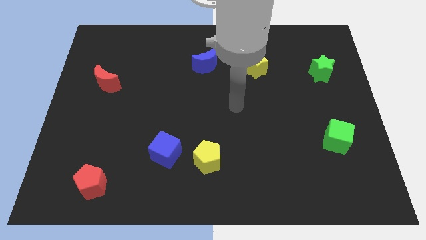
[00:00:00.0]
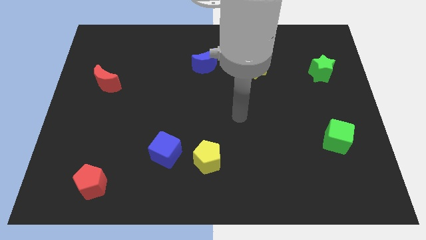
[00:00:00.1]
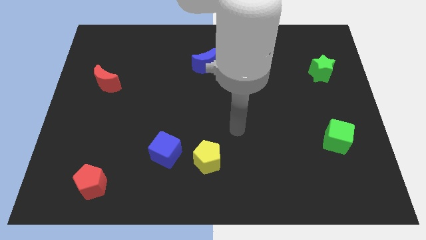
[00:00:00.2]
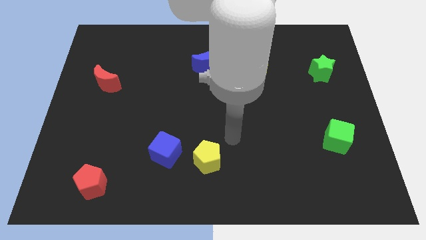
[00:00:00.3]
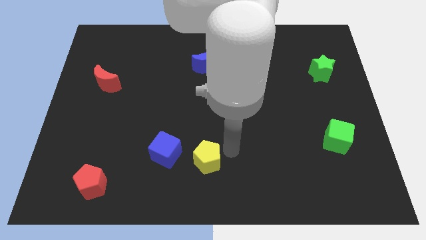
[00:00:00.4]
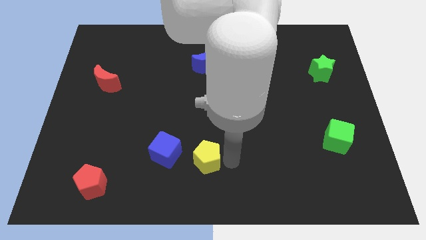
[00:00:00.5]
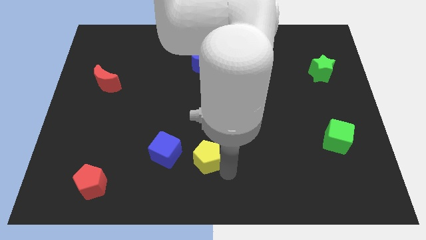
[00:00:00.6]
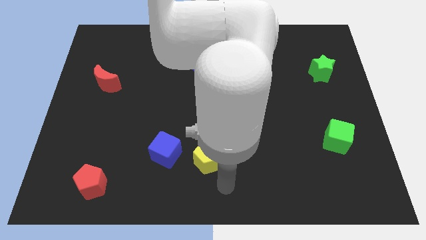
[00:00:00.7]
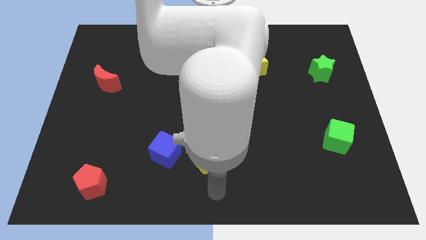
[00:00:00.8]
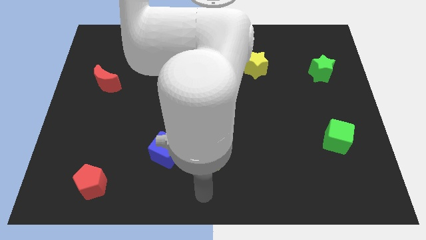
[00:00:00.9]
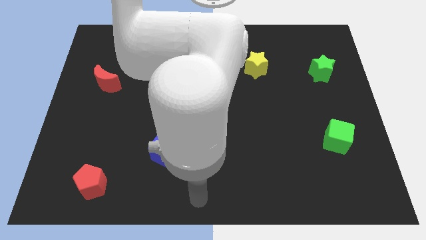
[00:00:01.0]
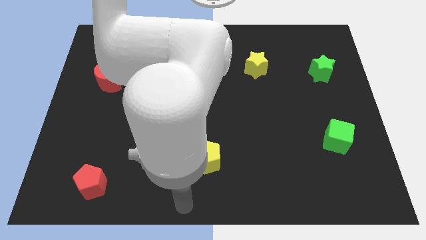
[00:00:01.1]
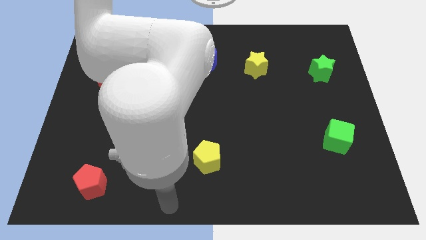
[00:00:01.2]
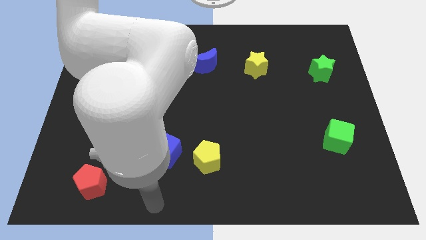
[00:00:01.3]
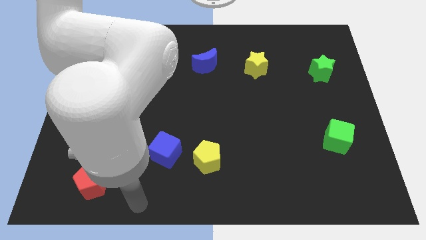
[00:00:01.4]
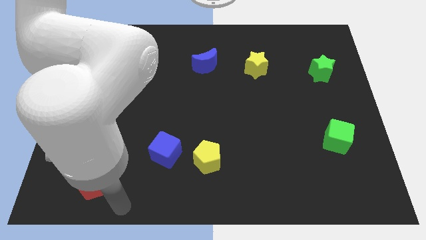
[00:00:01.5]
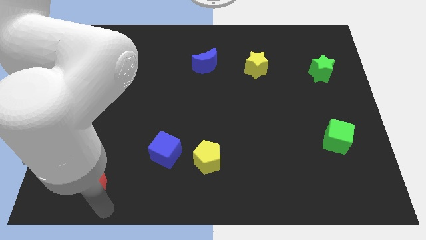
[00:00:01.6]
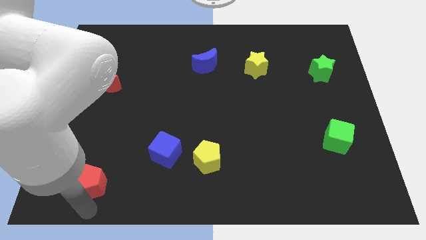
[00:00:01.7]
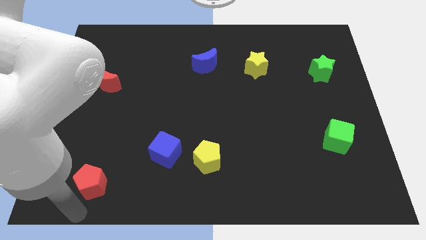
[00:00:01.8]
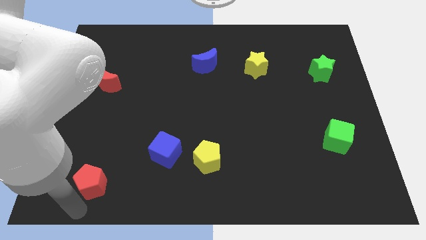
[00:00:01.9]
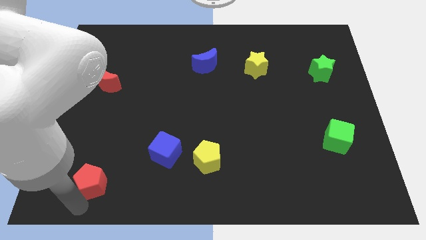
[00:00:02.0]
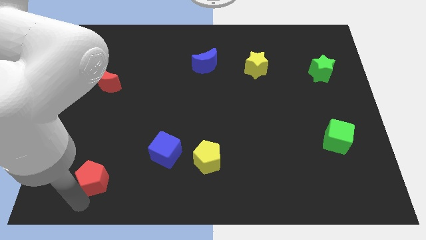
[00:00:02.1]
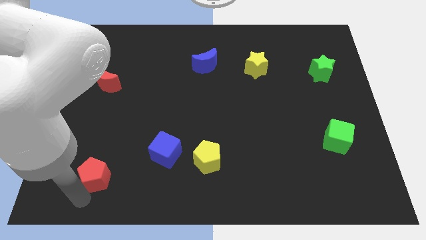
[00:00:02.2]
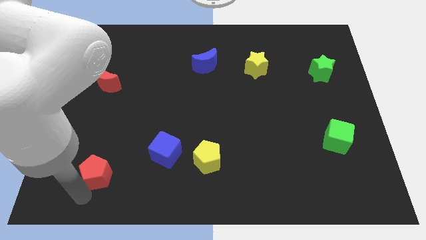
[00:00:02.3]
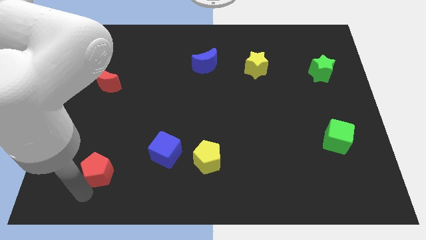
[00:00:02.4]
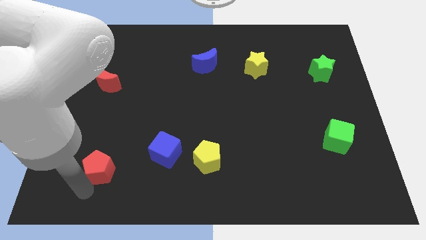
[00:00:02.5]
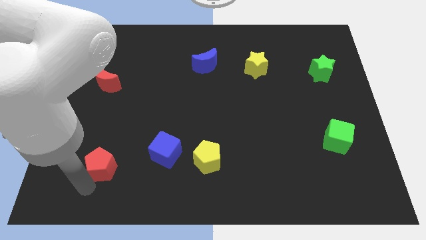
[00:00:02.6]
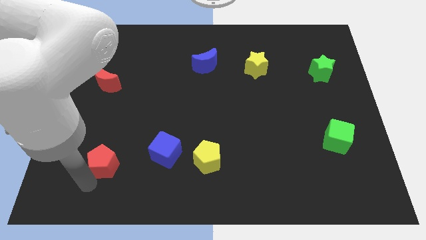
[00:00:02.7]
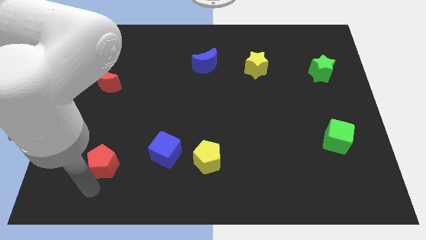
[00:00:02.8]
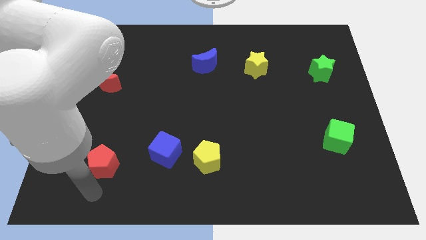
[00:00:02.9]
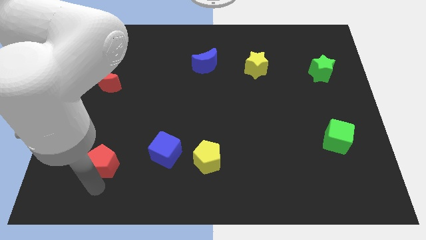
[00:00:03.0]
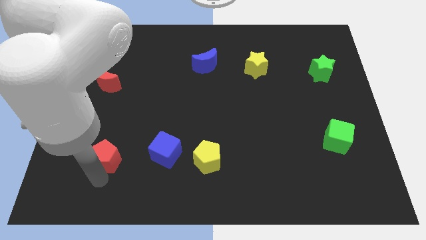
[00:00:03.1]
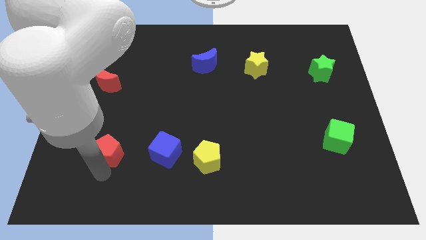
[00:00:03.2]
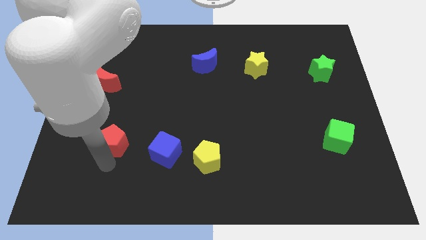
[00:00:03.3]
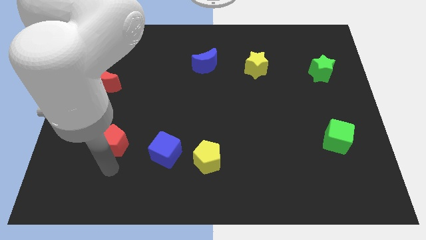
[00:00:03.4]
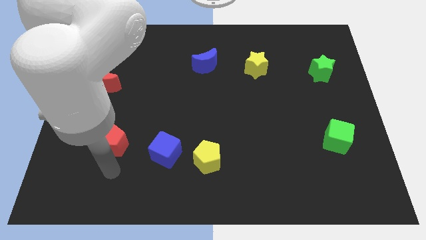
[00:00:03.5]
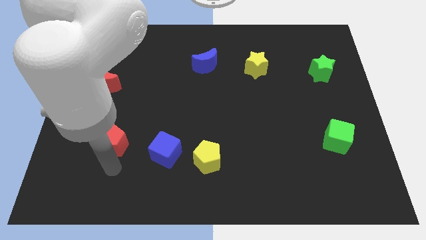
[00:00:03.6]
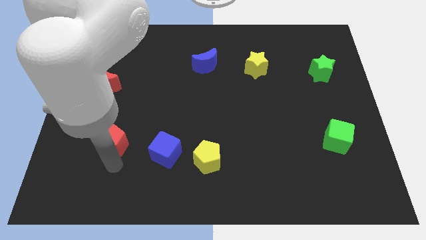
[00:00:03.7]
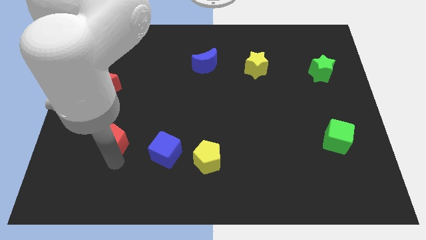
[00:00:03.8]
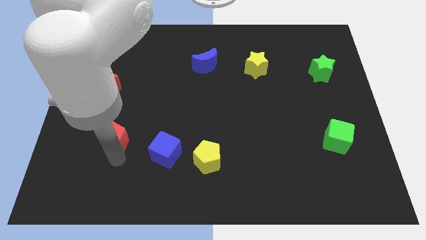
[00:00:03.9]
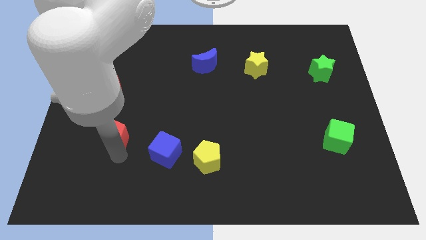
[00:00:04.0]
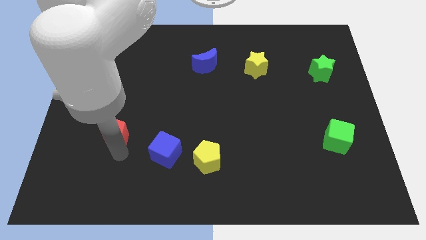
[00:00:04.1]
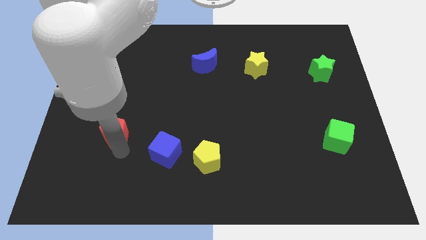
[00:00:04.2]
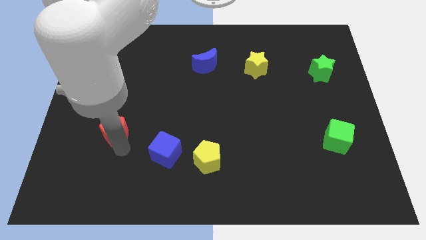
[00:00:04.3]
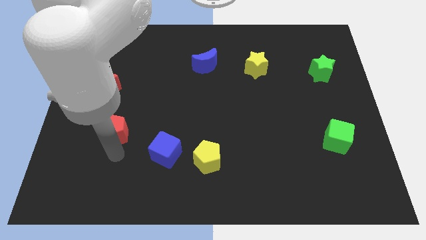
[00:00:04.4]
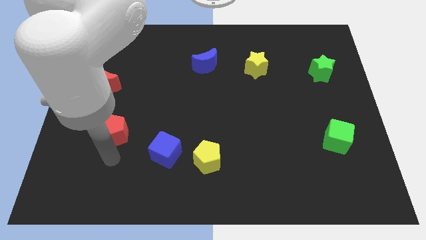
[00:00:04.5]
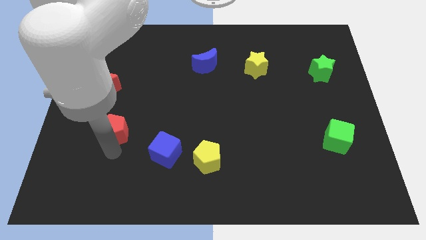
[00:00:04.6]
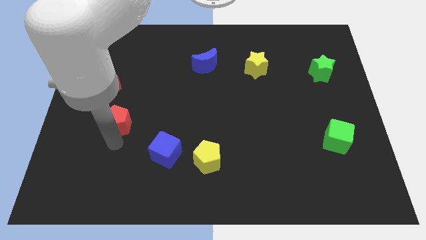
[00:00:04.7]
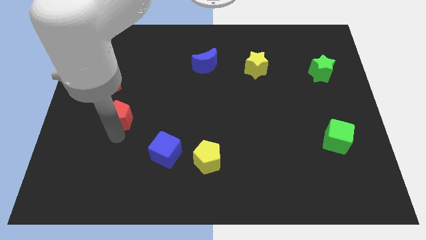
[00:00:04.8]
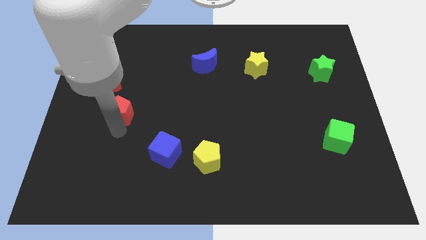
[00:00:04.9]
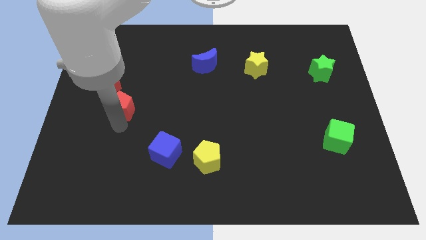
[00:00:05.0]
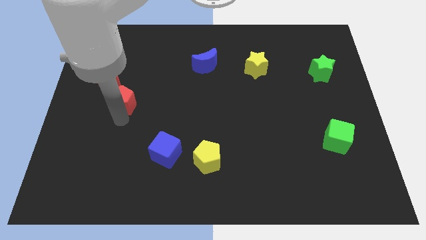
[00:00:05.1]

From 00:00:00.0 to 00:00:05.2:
slide the red pentagon upwards

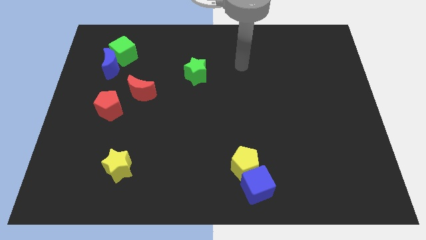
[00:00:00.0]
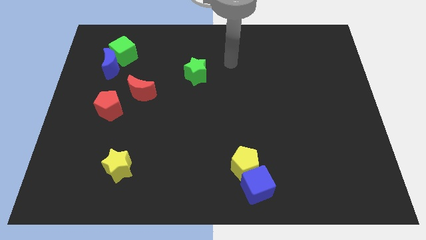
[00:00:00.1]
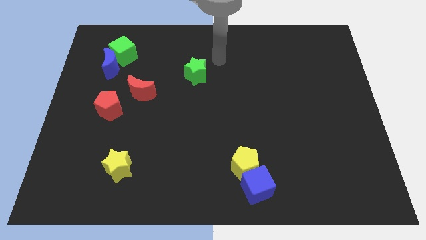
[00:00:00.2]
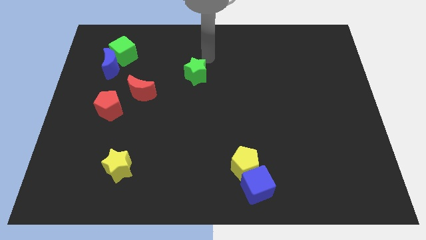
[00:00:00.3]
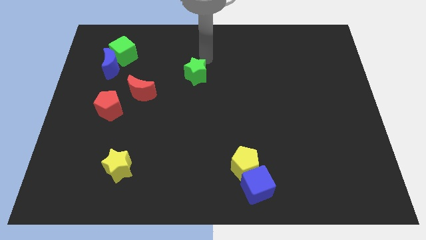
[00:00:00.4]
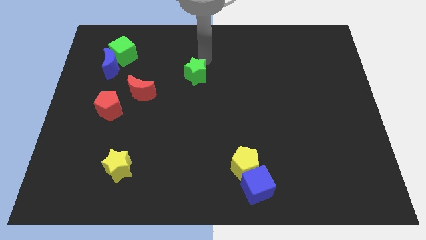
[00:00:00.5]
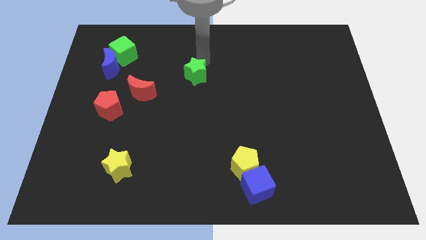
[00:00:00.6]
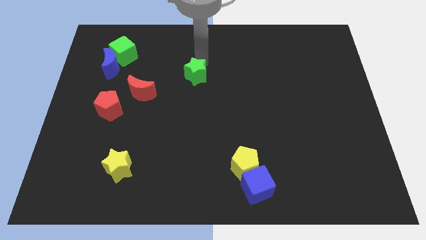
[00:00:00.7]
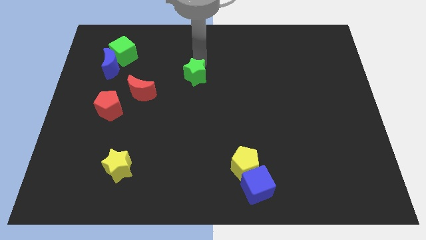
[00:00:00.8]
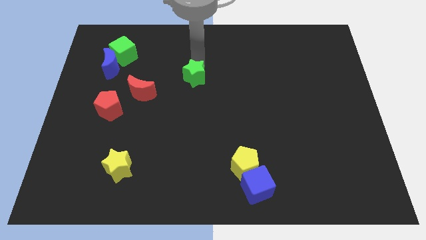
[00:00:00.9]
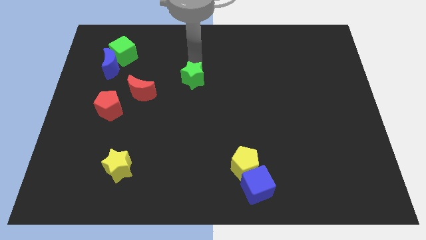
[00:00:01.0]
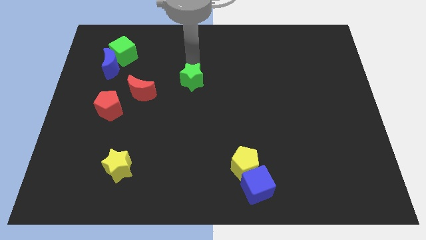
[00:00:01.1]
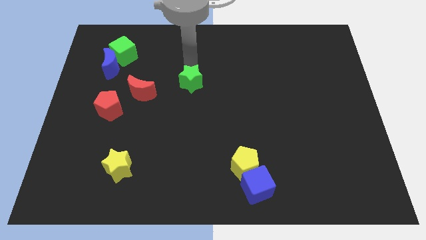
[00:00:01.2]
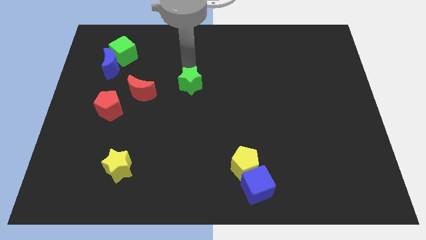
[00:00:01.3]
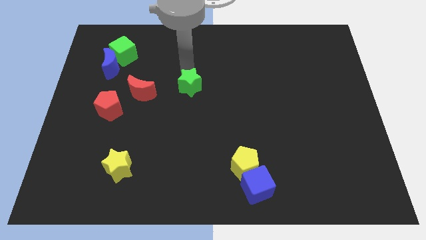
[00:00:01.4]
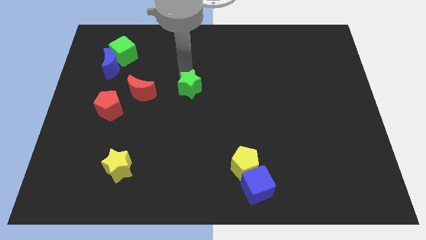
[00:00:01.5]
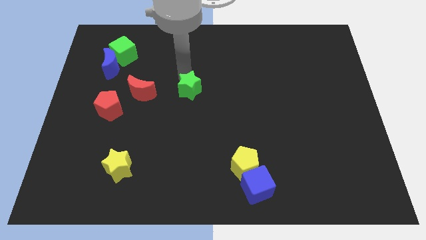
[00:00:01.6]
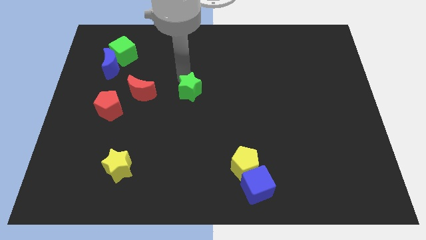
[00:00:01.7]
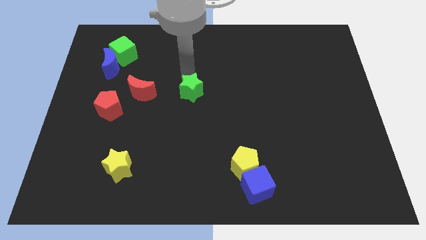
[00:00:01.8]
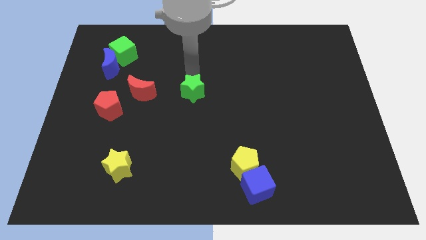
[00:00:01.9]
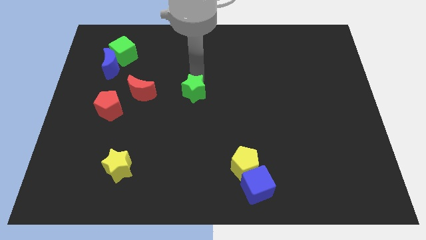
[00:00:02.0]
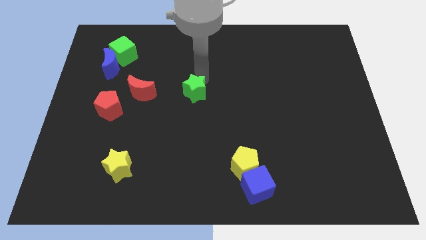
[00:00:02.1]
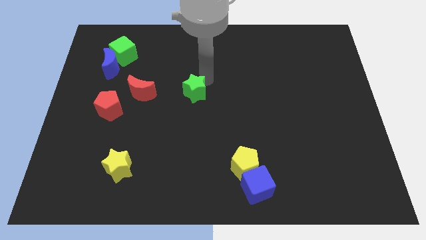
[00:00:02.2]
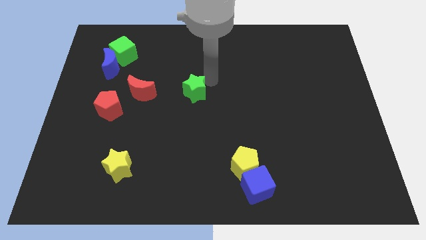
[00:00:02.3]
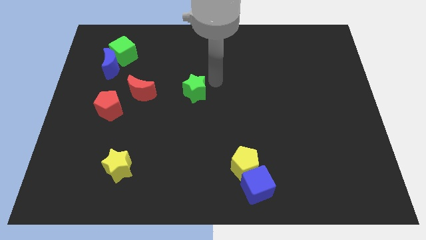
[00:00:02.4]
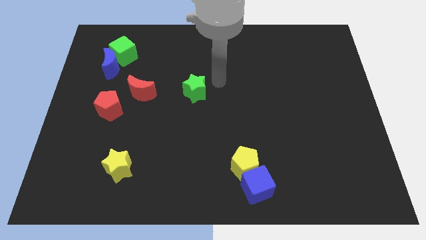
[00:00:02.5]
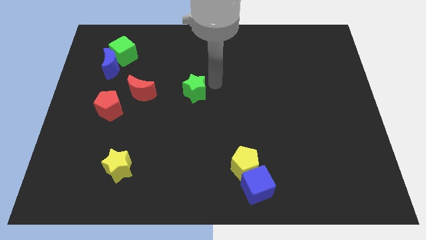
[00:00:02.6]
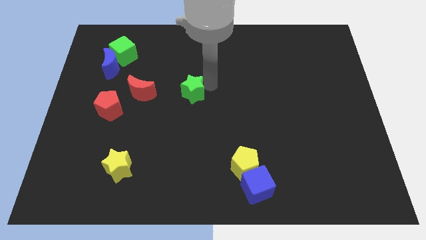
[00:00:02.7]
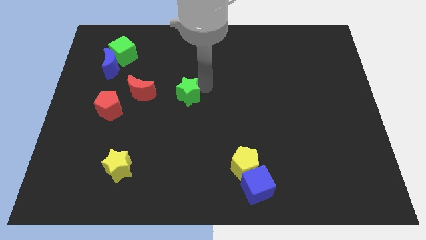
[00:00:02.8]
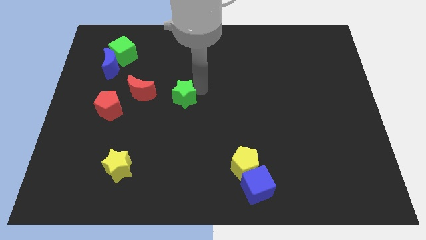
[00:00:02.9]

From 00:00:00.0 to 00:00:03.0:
slightly move the green star down and to the left diagonally
